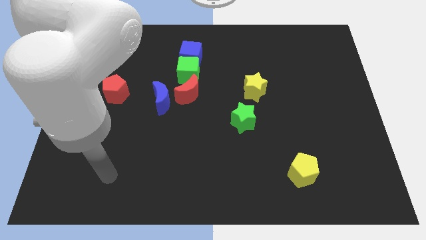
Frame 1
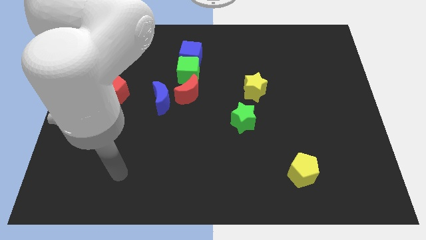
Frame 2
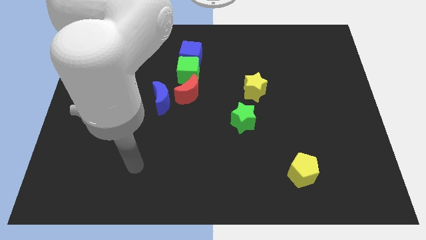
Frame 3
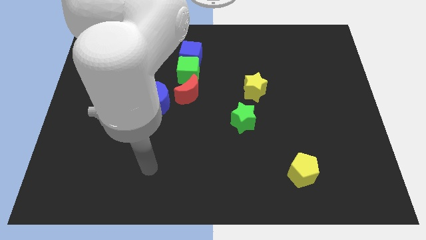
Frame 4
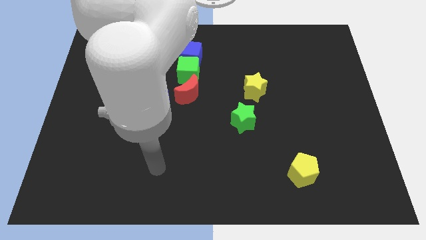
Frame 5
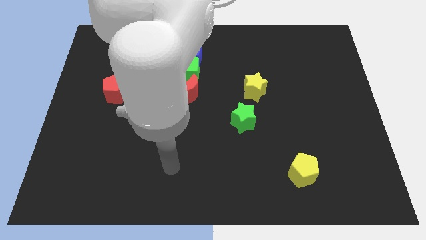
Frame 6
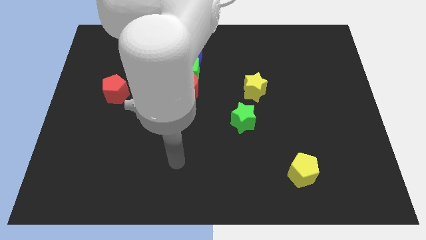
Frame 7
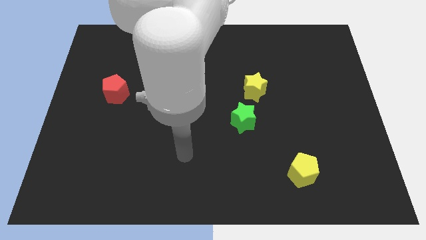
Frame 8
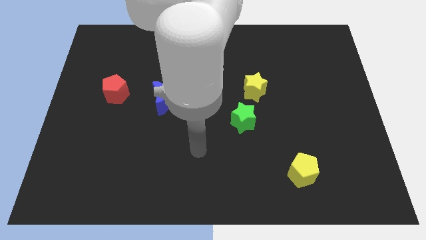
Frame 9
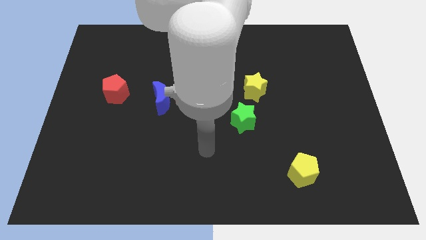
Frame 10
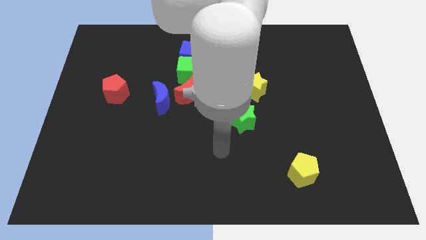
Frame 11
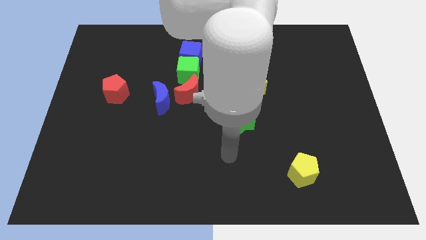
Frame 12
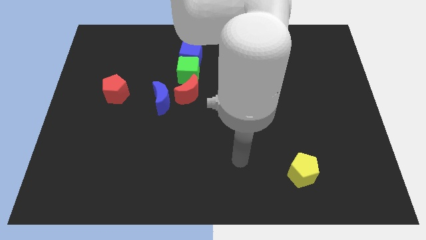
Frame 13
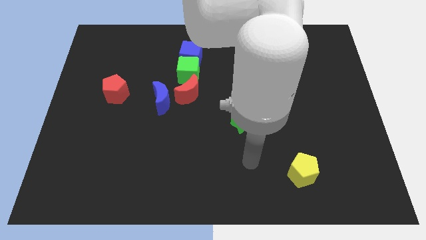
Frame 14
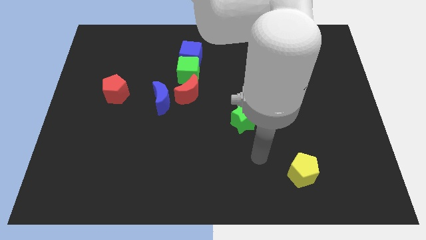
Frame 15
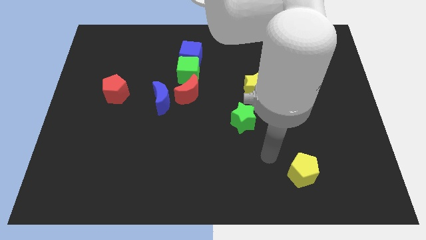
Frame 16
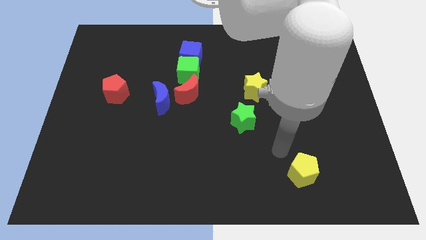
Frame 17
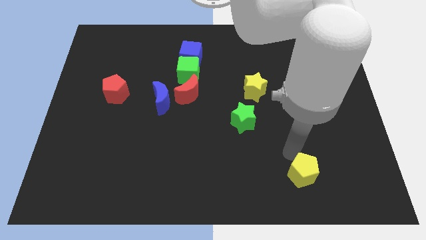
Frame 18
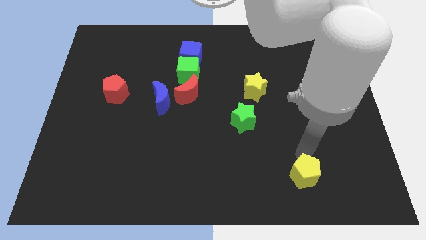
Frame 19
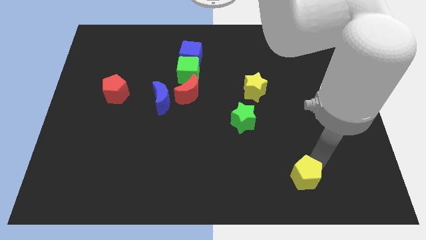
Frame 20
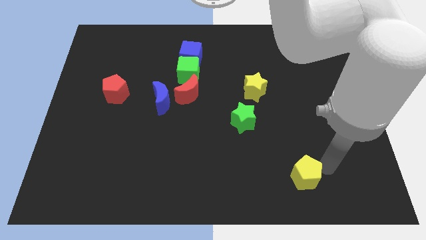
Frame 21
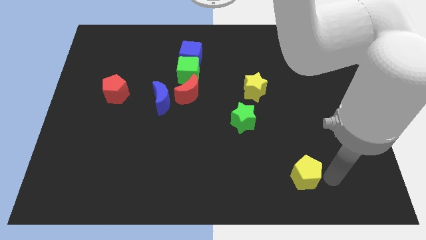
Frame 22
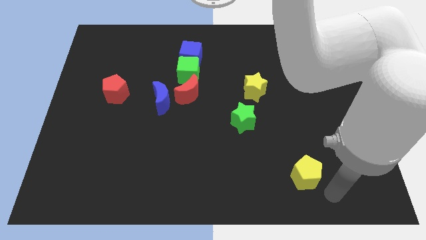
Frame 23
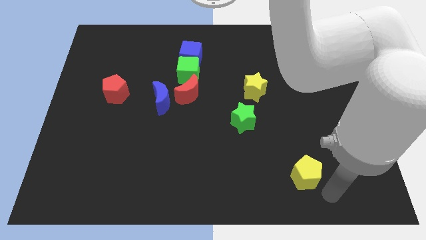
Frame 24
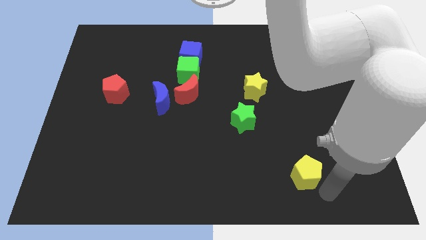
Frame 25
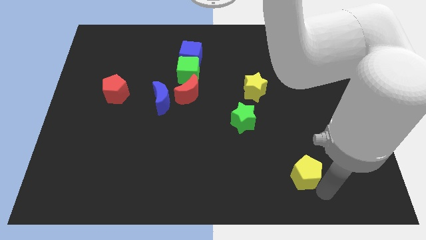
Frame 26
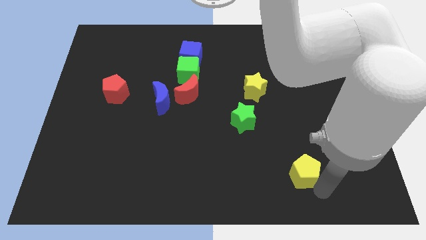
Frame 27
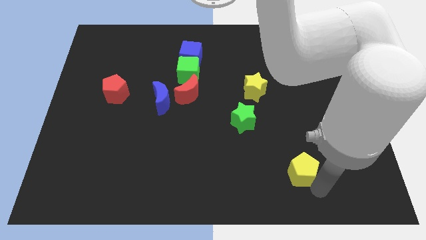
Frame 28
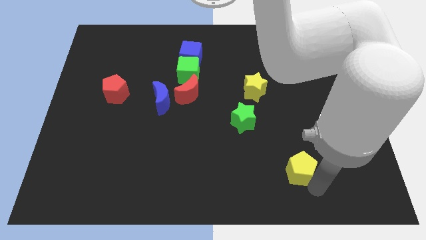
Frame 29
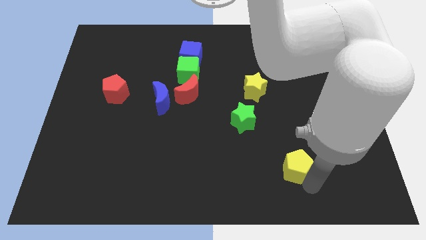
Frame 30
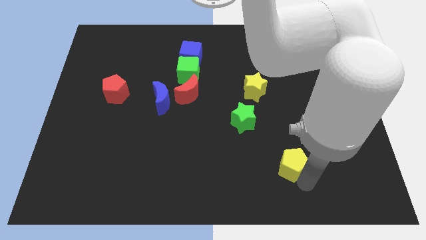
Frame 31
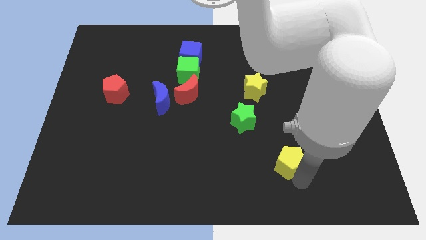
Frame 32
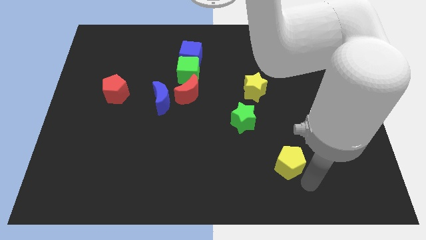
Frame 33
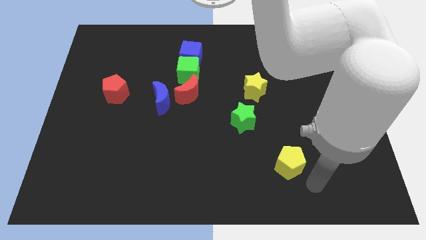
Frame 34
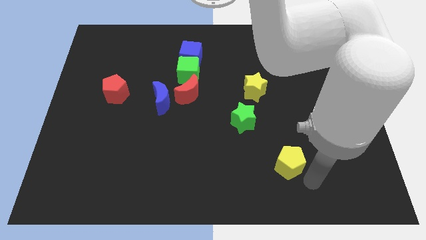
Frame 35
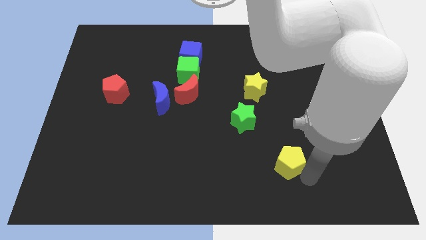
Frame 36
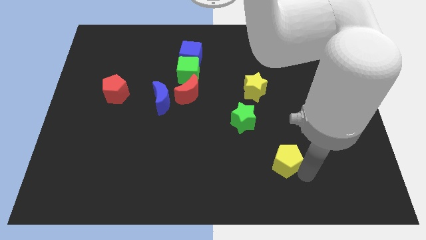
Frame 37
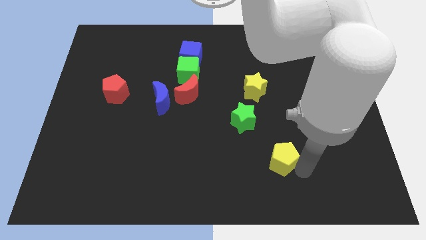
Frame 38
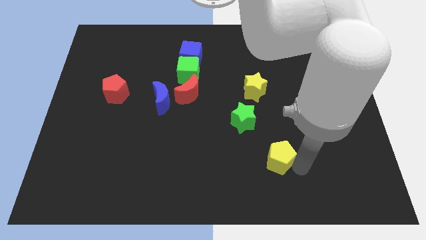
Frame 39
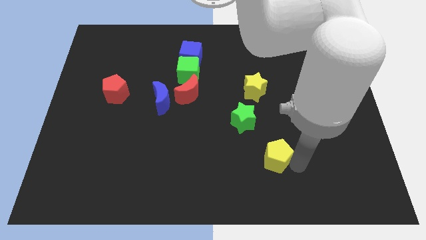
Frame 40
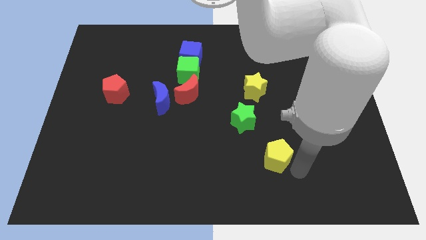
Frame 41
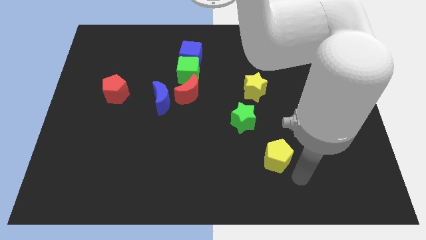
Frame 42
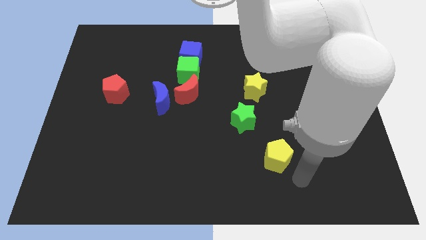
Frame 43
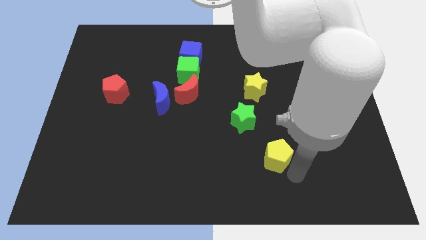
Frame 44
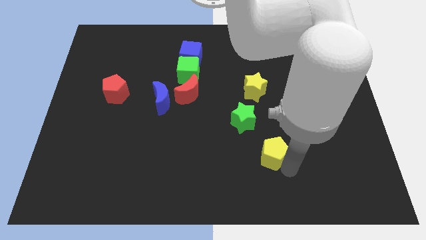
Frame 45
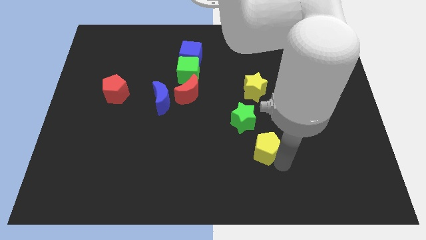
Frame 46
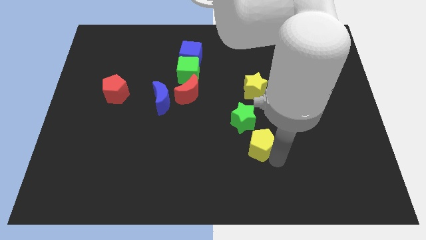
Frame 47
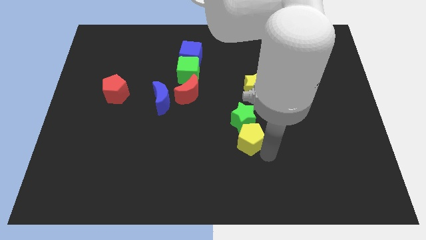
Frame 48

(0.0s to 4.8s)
move the yellow pentagon next to the green star

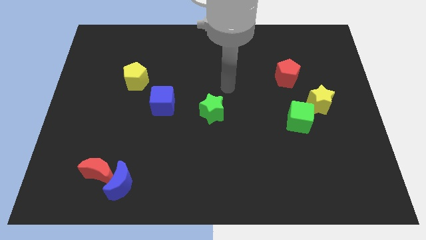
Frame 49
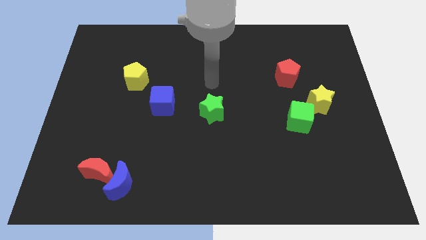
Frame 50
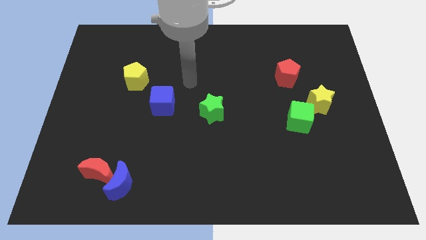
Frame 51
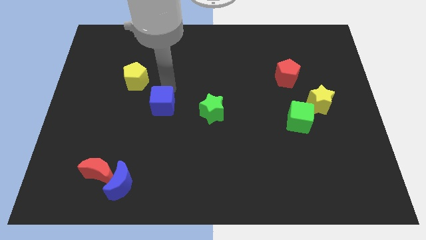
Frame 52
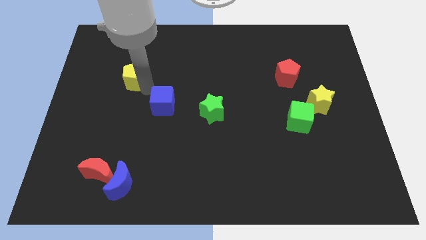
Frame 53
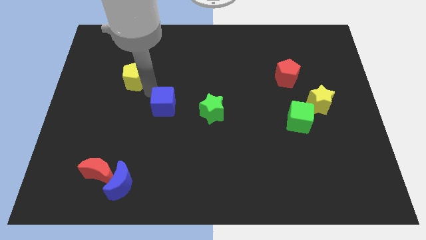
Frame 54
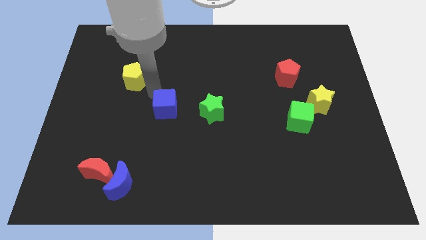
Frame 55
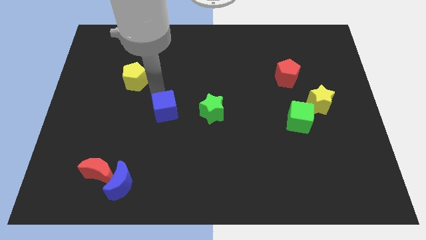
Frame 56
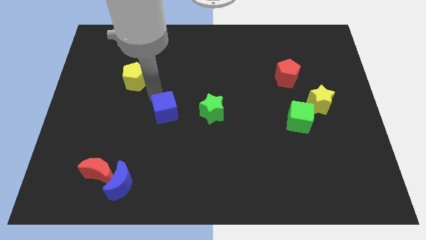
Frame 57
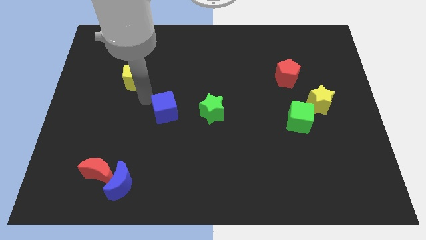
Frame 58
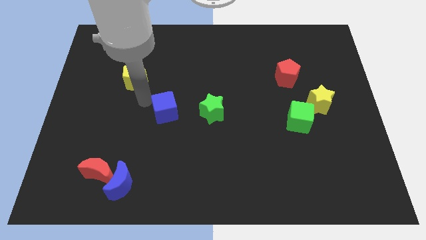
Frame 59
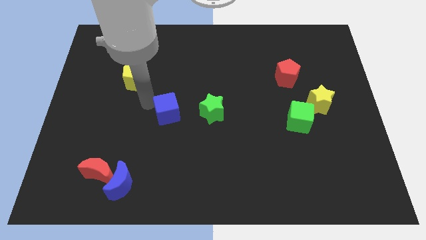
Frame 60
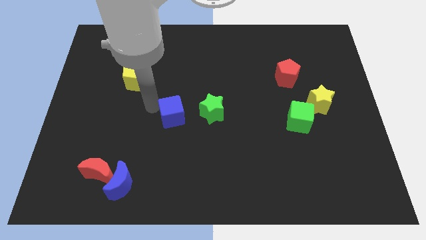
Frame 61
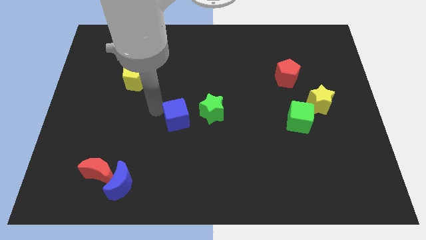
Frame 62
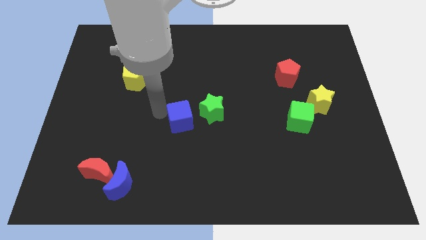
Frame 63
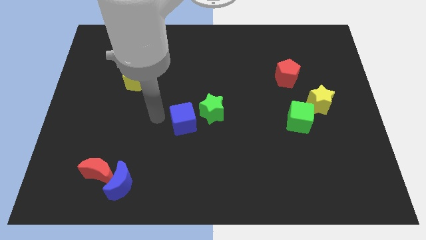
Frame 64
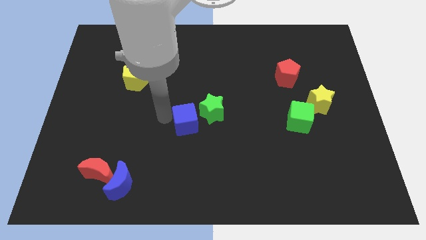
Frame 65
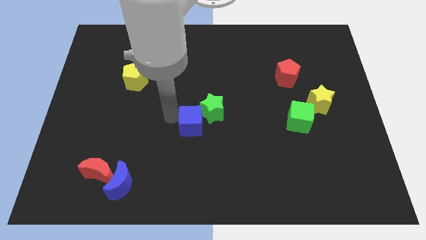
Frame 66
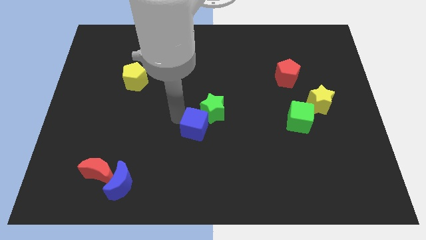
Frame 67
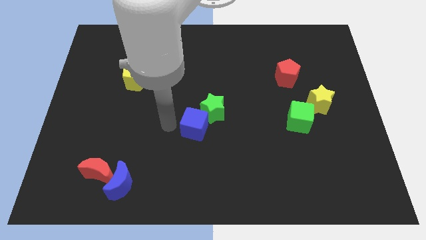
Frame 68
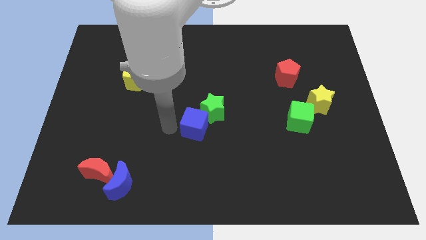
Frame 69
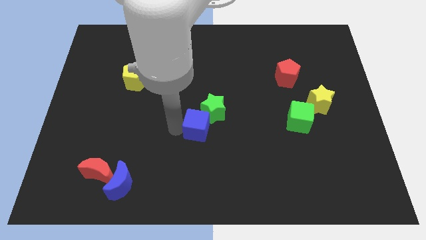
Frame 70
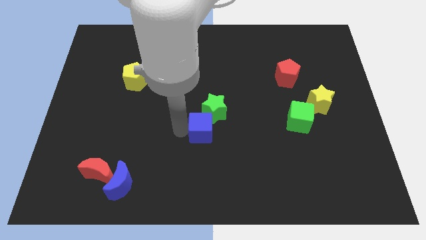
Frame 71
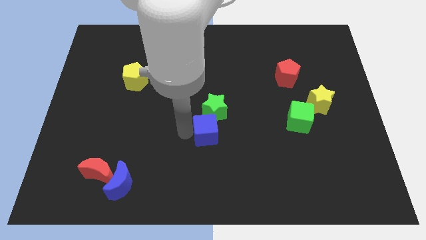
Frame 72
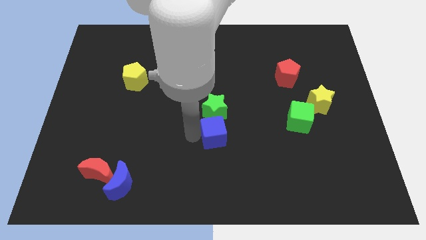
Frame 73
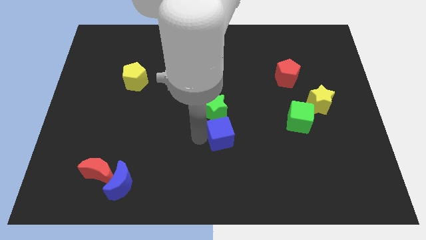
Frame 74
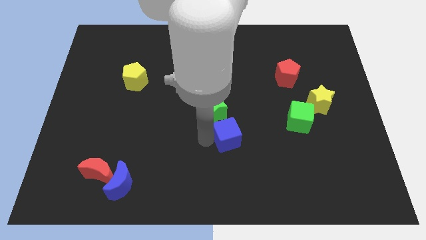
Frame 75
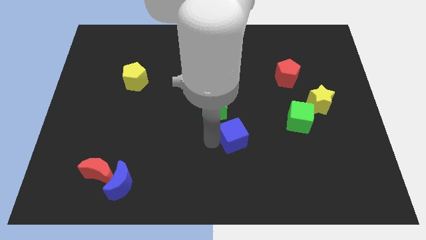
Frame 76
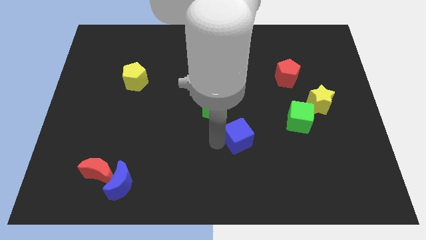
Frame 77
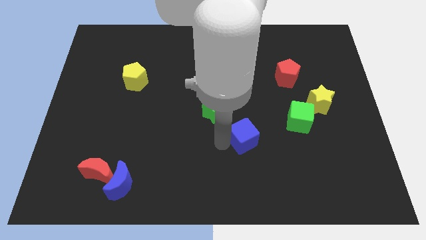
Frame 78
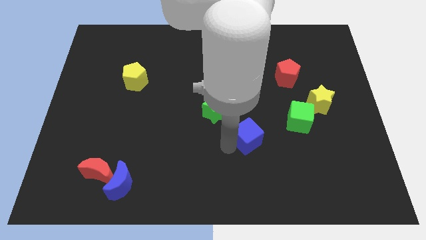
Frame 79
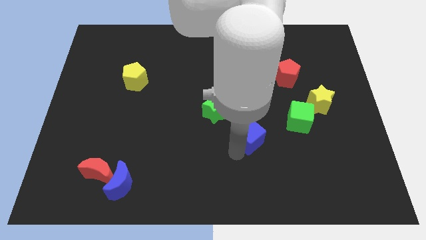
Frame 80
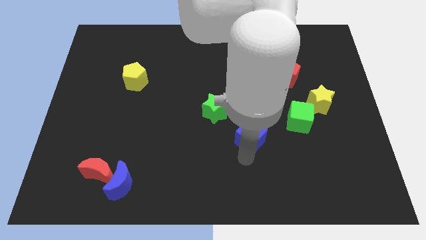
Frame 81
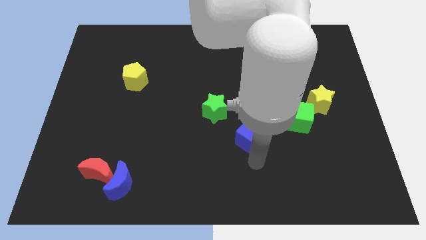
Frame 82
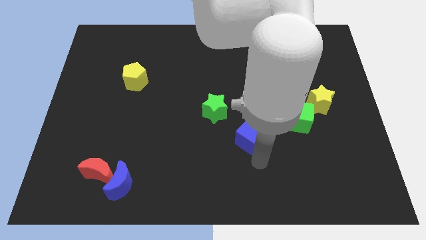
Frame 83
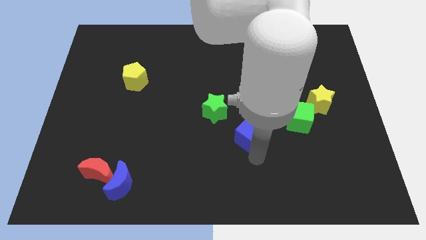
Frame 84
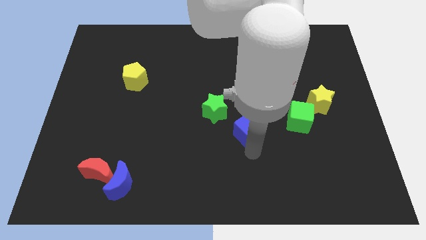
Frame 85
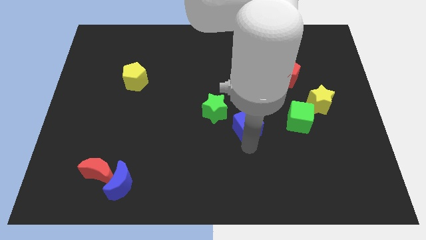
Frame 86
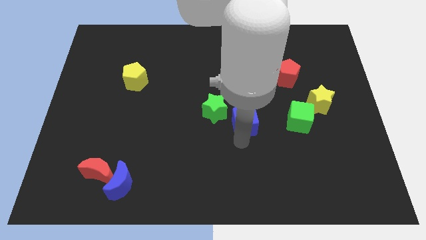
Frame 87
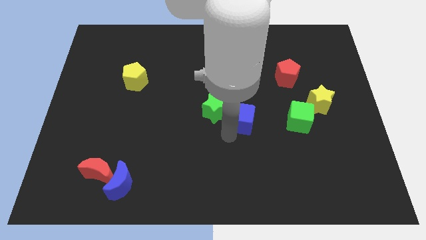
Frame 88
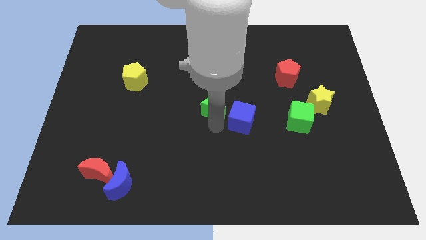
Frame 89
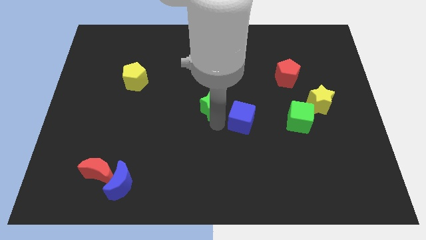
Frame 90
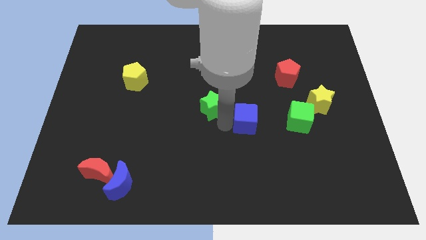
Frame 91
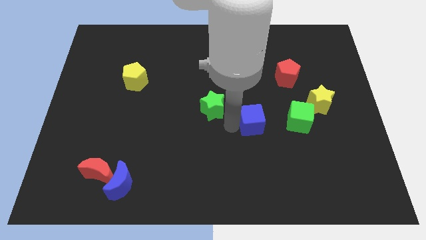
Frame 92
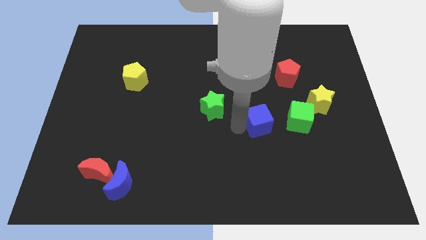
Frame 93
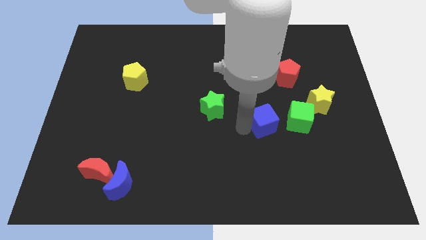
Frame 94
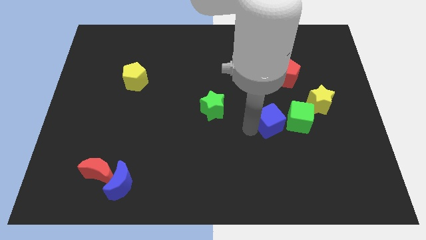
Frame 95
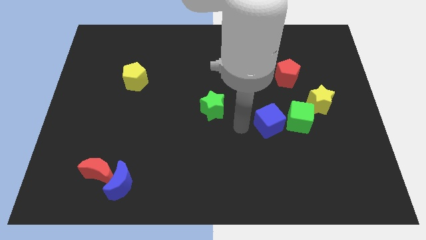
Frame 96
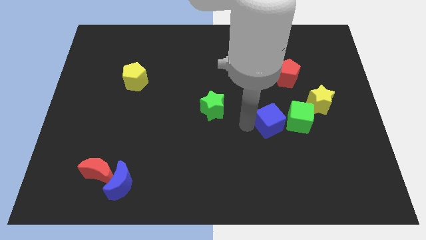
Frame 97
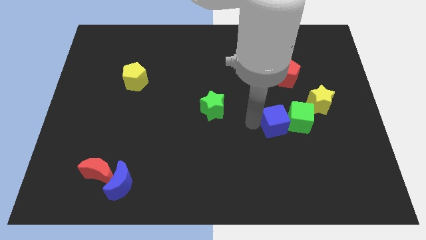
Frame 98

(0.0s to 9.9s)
push the blue cube close to the green cube
